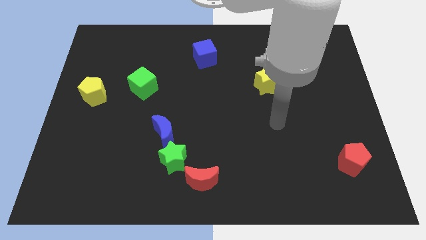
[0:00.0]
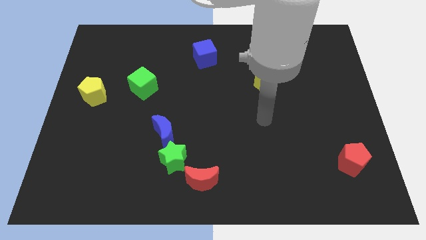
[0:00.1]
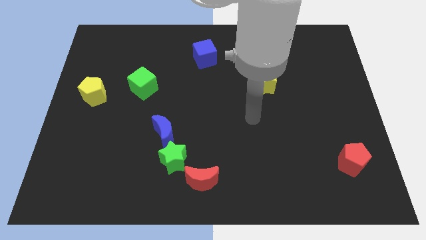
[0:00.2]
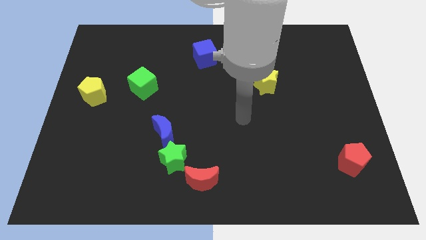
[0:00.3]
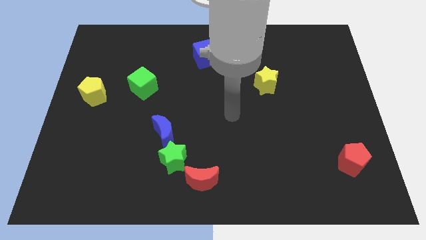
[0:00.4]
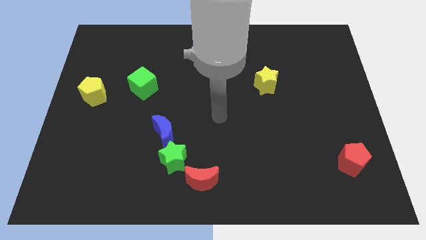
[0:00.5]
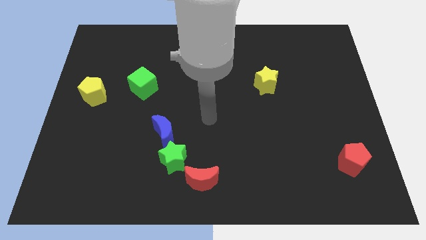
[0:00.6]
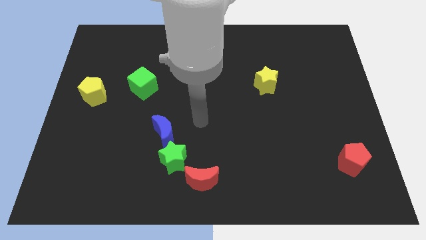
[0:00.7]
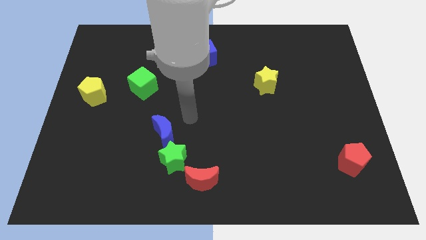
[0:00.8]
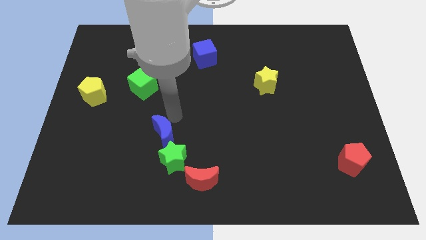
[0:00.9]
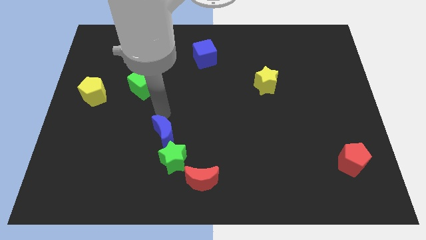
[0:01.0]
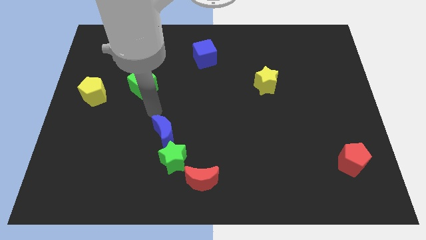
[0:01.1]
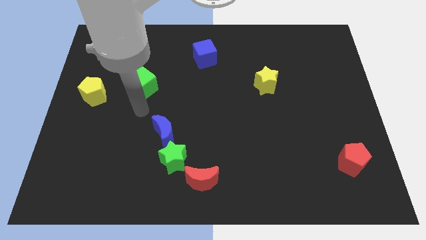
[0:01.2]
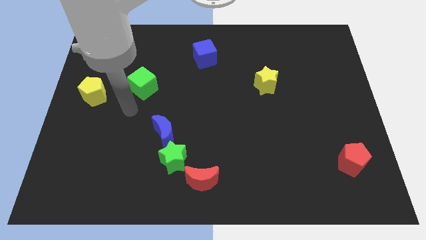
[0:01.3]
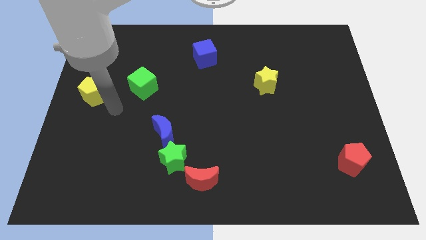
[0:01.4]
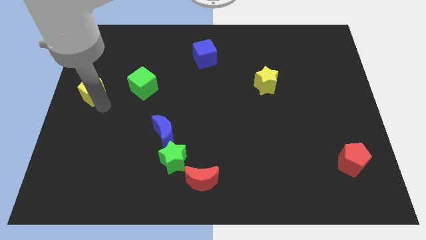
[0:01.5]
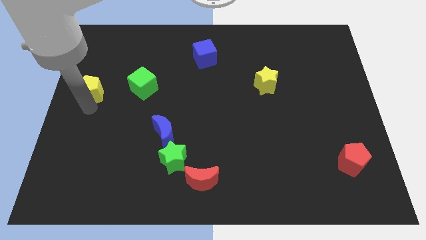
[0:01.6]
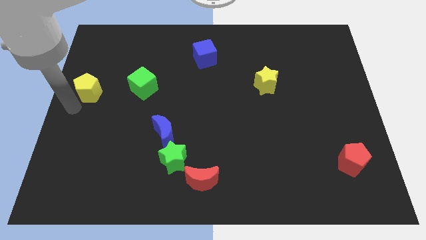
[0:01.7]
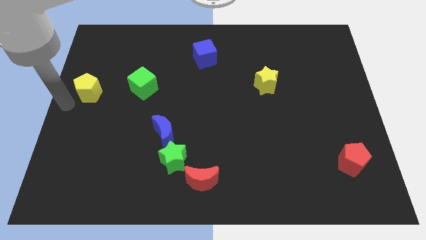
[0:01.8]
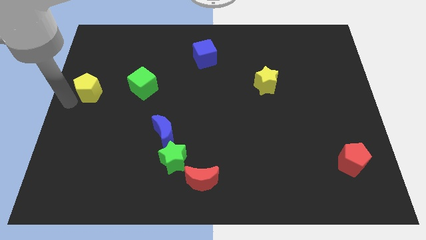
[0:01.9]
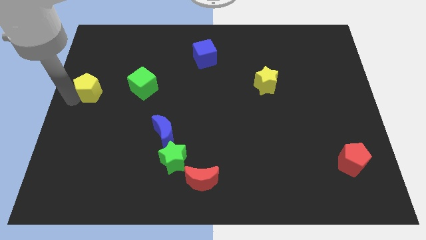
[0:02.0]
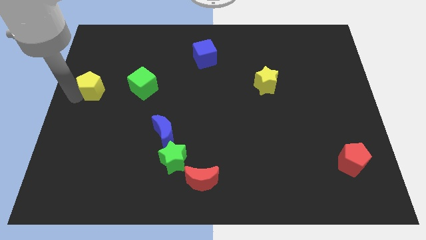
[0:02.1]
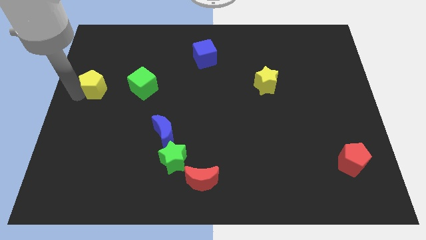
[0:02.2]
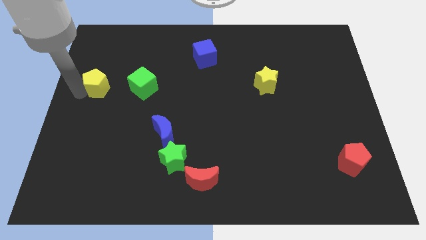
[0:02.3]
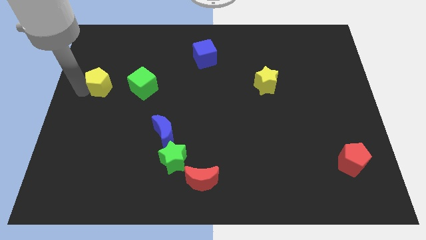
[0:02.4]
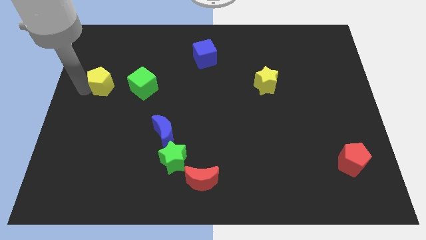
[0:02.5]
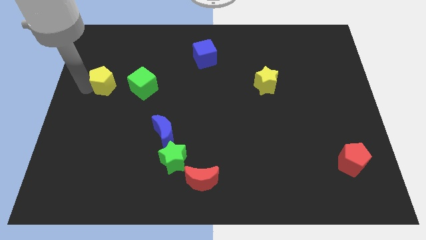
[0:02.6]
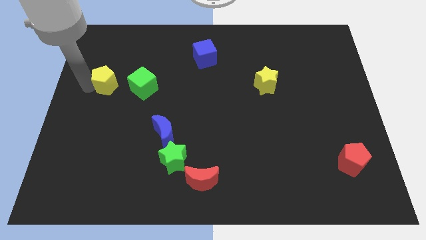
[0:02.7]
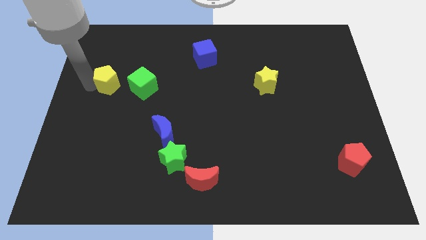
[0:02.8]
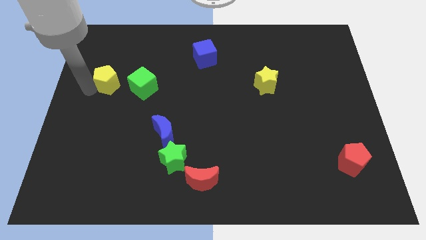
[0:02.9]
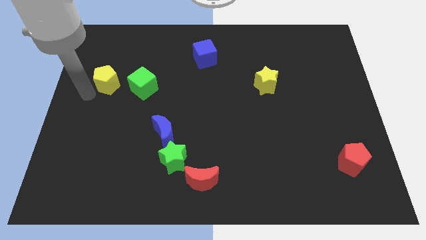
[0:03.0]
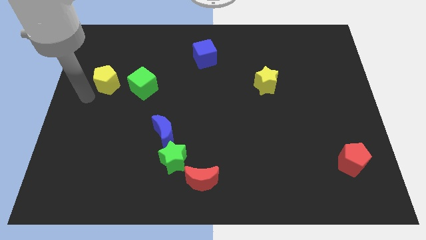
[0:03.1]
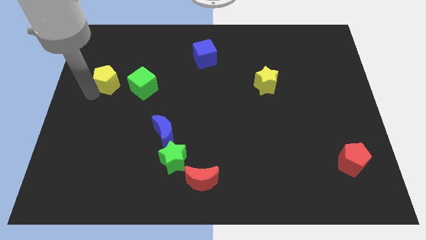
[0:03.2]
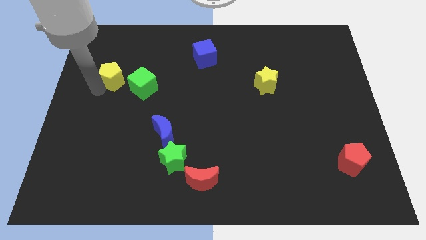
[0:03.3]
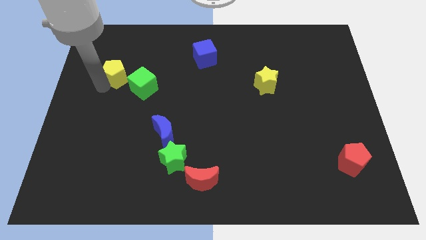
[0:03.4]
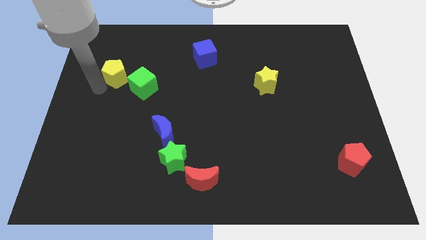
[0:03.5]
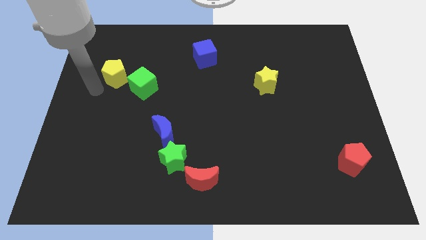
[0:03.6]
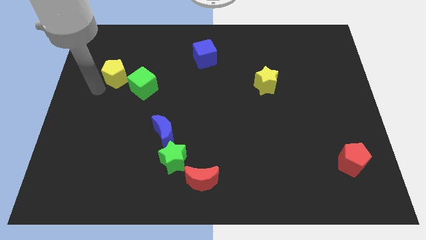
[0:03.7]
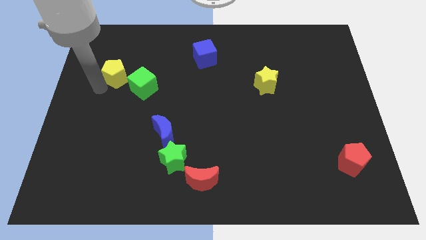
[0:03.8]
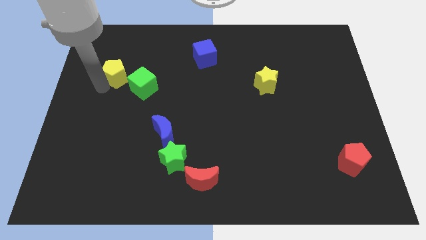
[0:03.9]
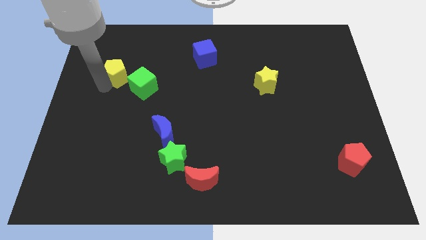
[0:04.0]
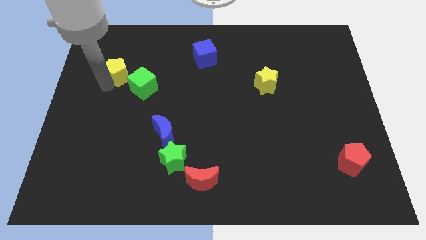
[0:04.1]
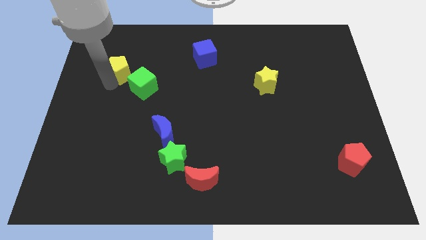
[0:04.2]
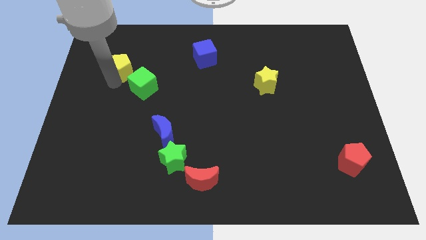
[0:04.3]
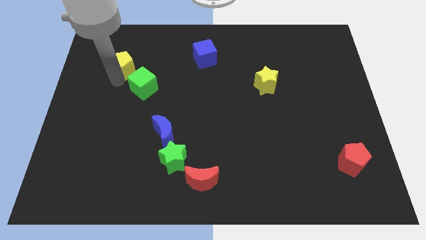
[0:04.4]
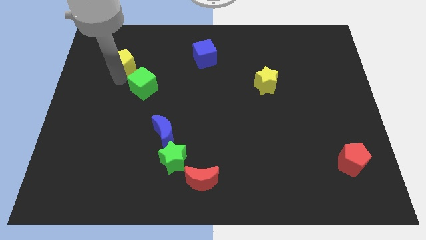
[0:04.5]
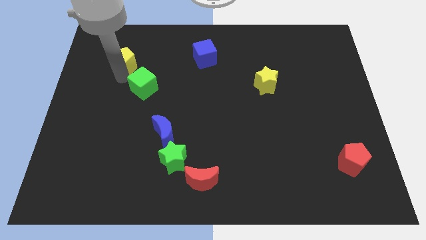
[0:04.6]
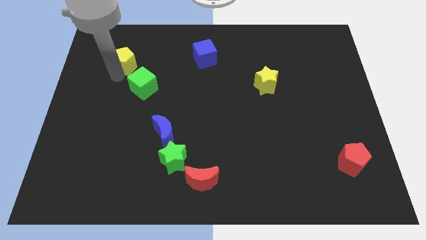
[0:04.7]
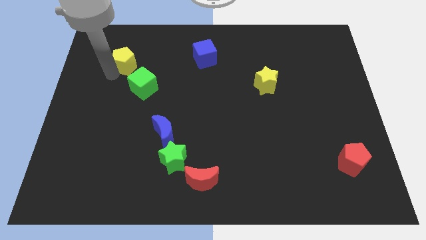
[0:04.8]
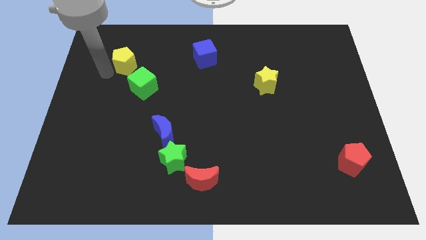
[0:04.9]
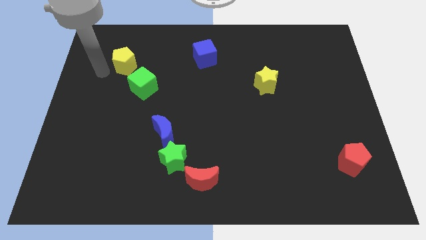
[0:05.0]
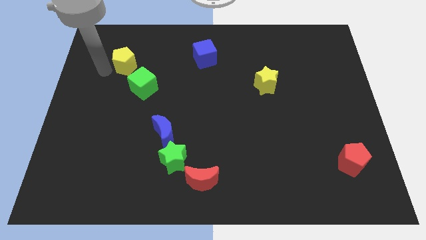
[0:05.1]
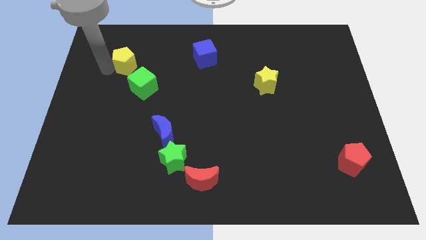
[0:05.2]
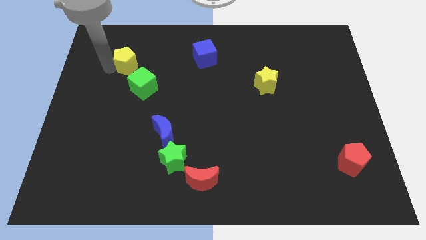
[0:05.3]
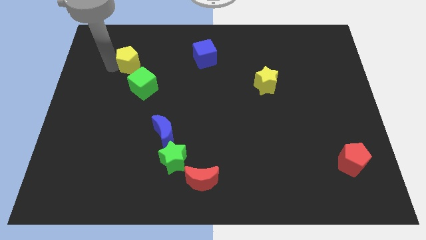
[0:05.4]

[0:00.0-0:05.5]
move the yellow pentagon to the top side of the green cube

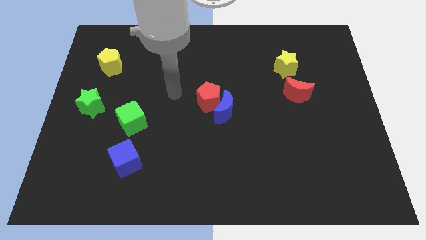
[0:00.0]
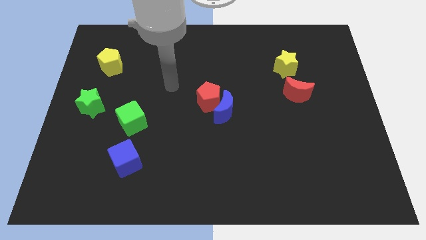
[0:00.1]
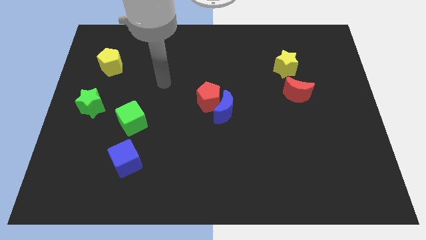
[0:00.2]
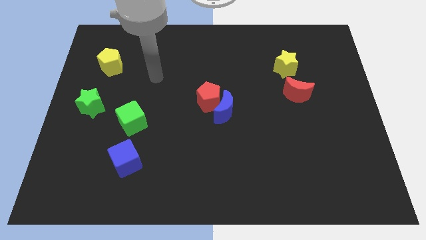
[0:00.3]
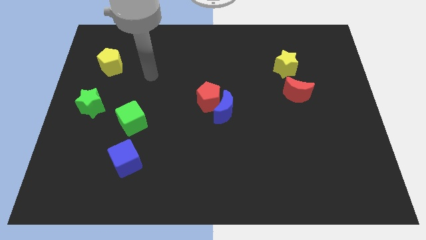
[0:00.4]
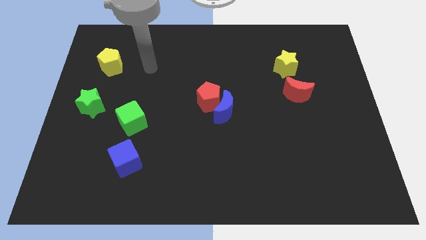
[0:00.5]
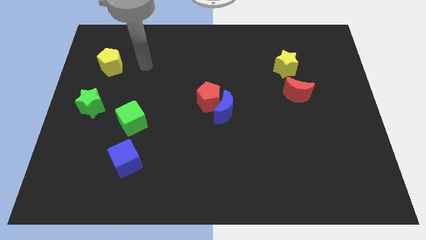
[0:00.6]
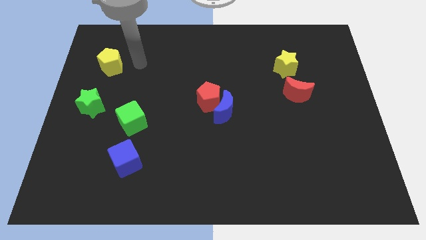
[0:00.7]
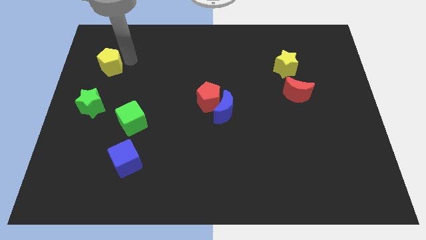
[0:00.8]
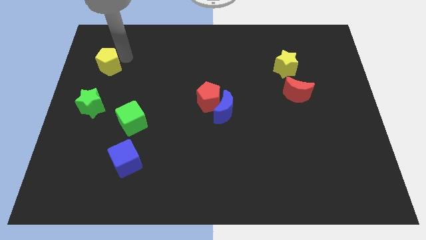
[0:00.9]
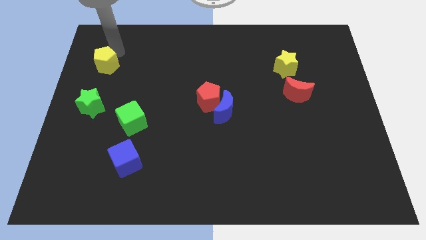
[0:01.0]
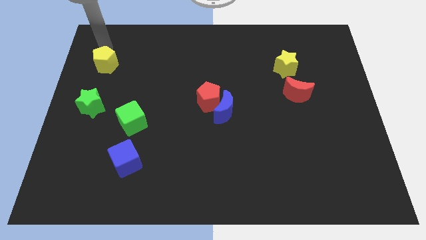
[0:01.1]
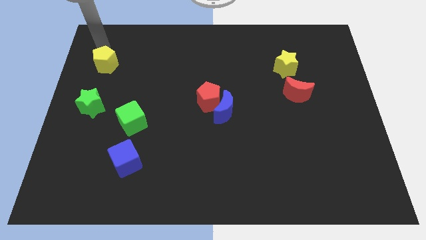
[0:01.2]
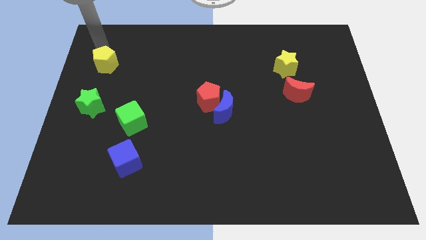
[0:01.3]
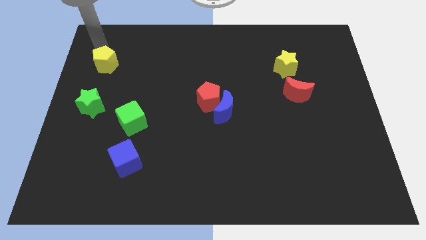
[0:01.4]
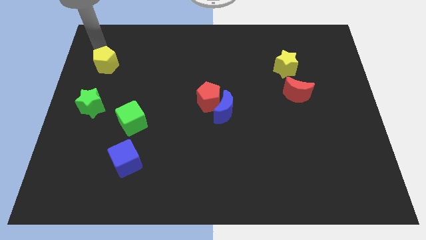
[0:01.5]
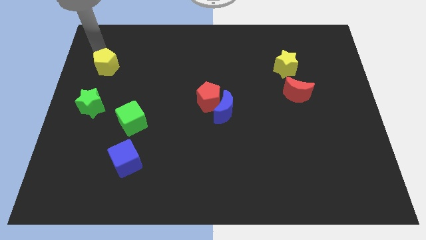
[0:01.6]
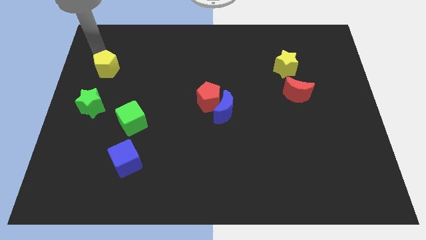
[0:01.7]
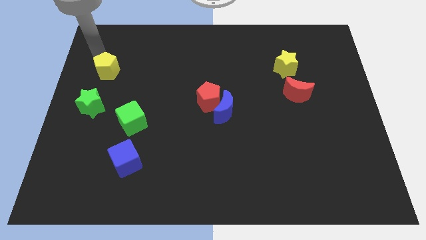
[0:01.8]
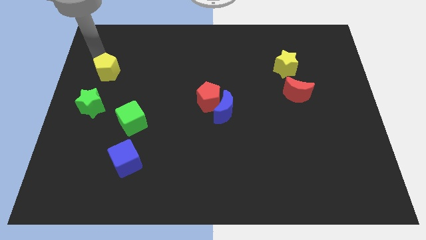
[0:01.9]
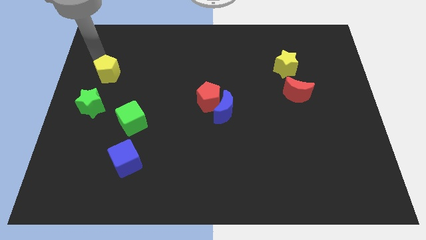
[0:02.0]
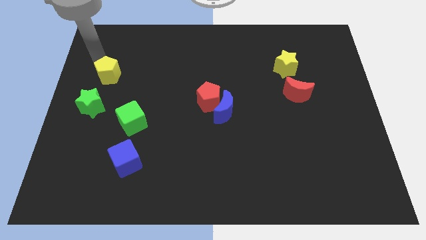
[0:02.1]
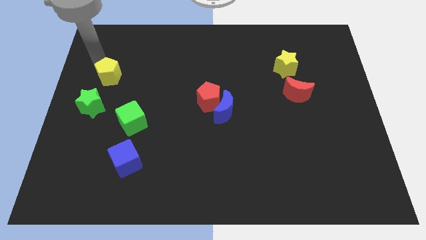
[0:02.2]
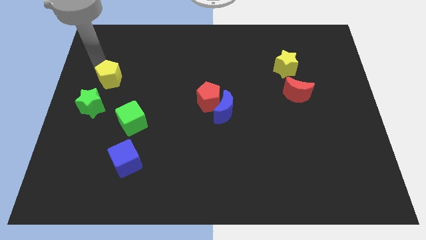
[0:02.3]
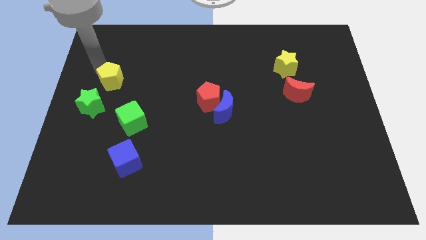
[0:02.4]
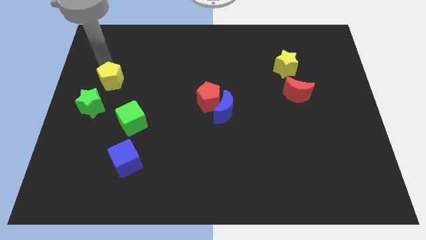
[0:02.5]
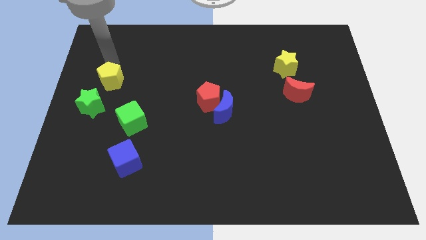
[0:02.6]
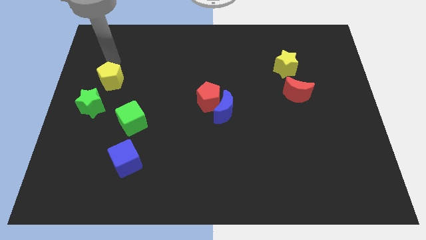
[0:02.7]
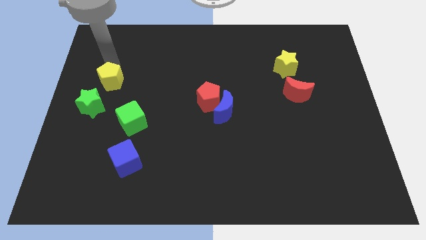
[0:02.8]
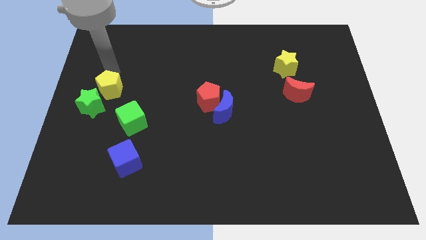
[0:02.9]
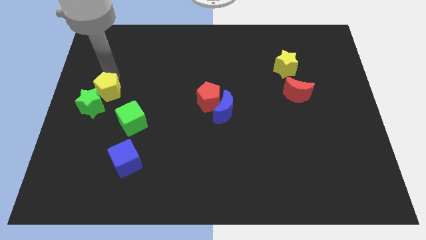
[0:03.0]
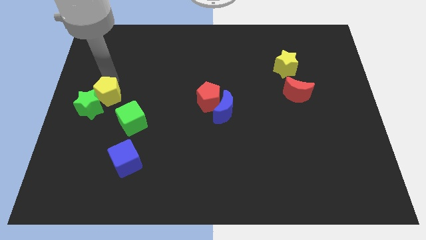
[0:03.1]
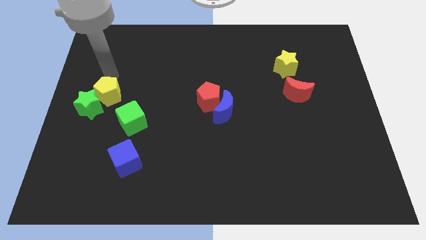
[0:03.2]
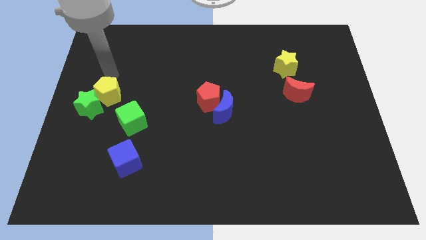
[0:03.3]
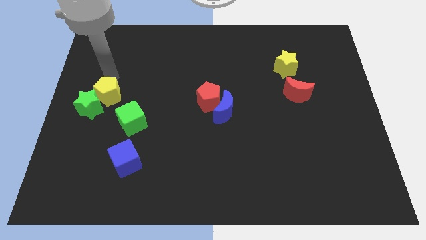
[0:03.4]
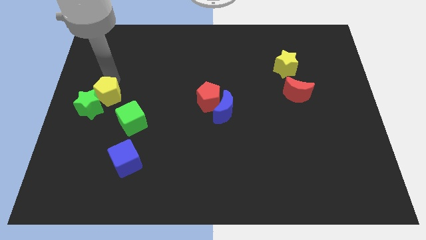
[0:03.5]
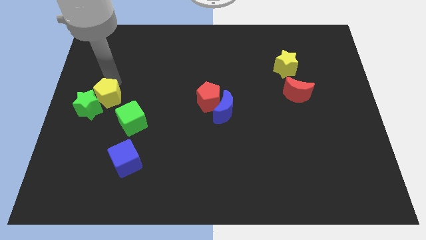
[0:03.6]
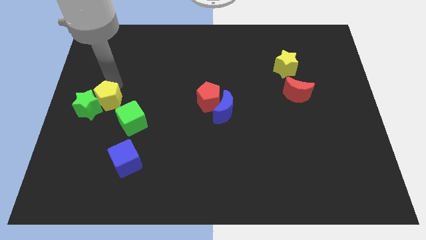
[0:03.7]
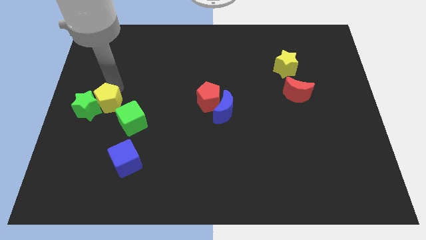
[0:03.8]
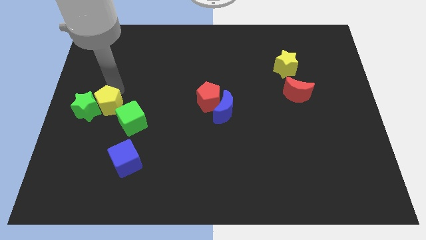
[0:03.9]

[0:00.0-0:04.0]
push the yellow pentagon to the bottom right of the green star
